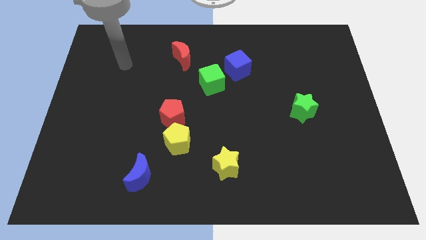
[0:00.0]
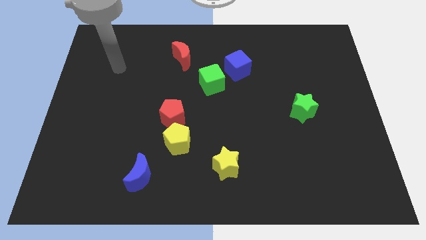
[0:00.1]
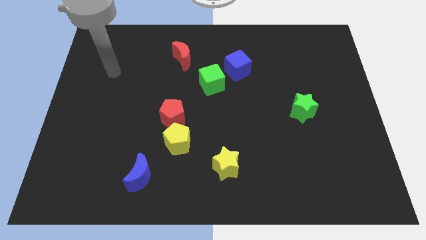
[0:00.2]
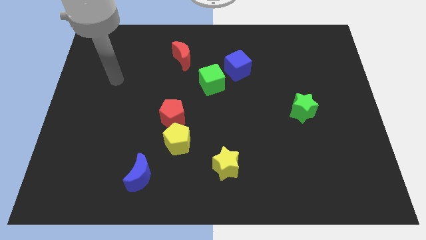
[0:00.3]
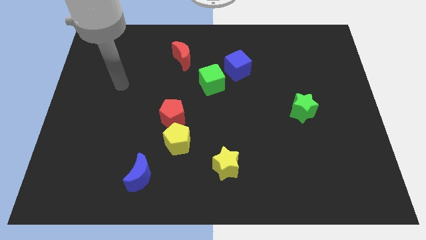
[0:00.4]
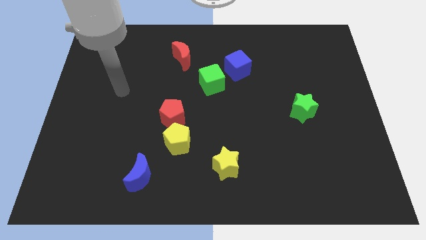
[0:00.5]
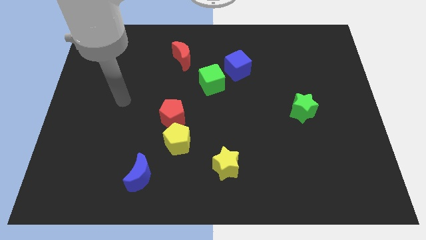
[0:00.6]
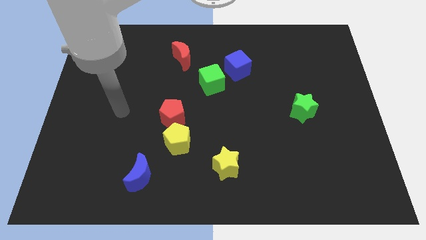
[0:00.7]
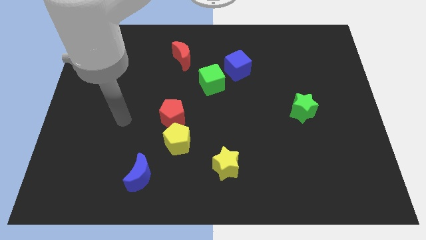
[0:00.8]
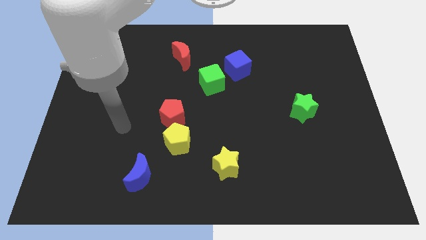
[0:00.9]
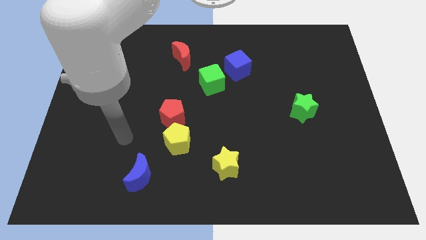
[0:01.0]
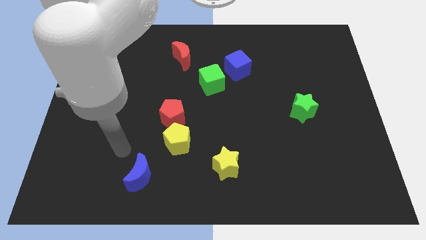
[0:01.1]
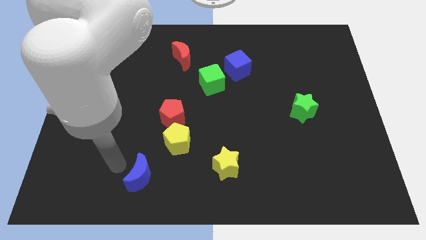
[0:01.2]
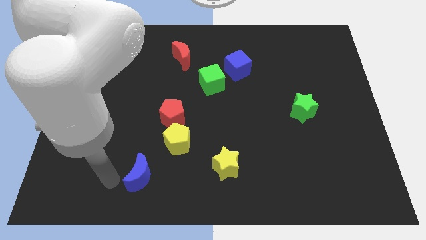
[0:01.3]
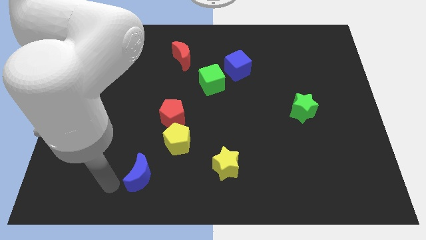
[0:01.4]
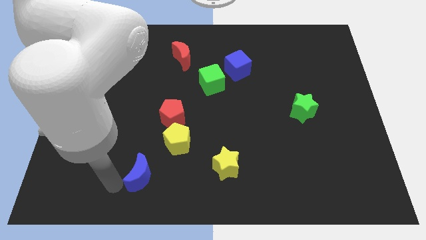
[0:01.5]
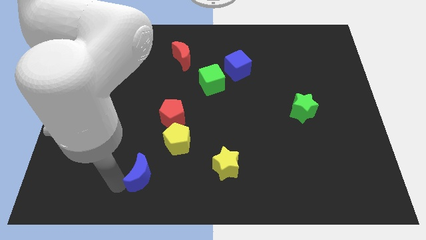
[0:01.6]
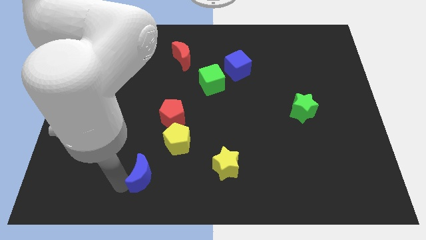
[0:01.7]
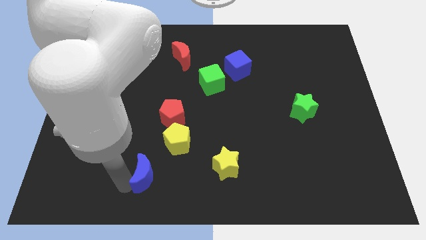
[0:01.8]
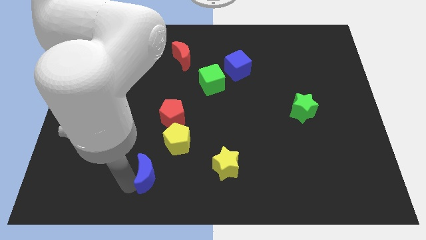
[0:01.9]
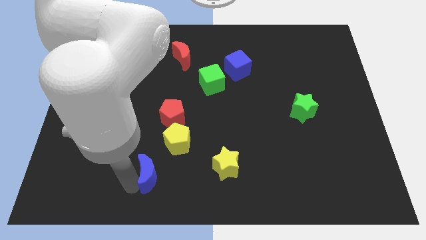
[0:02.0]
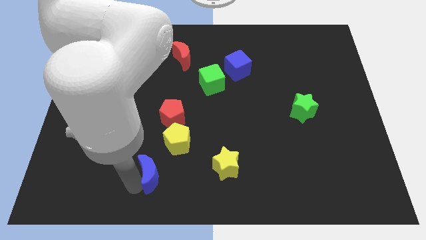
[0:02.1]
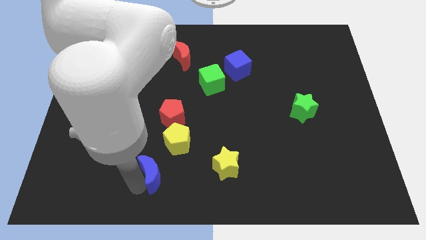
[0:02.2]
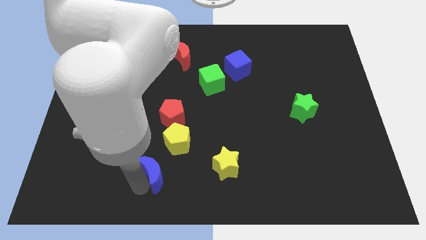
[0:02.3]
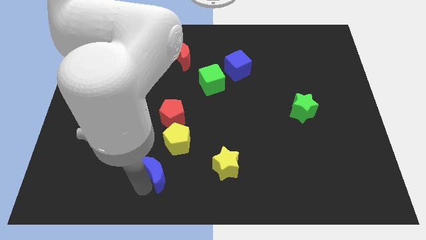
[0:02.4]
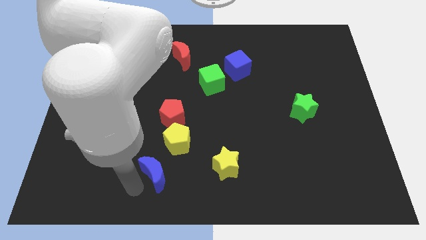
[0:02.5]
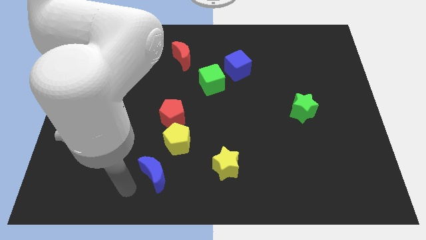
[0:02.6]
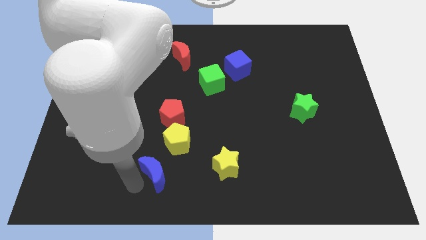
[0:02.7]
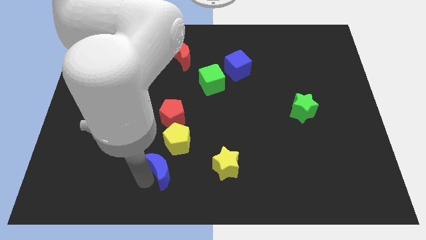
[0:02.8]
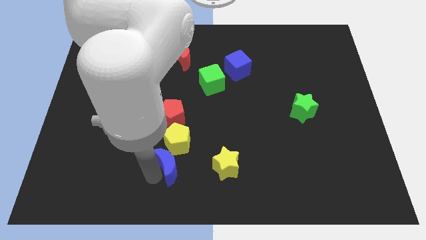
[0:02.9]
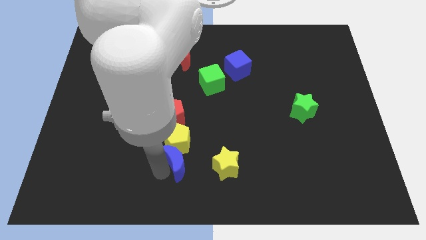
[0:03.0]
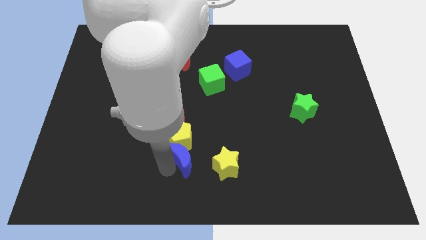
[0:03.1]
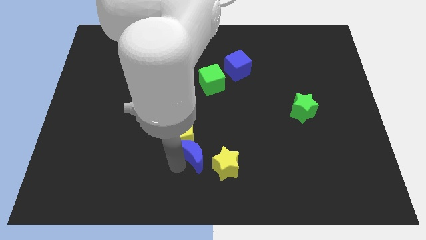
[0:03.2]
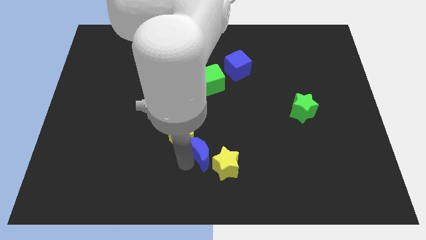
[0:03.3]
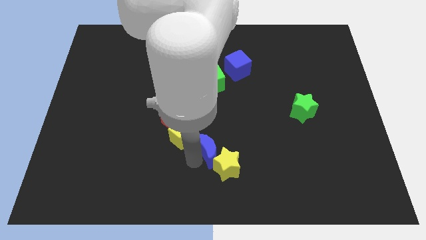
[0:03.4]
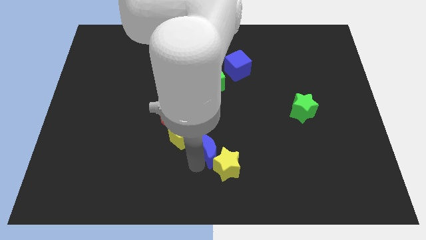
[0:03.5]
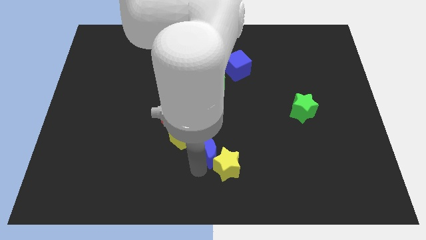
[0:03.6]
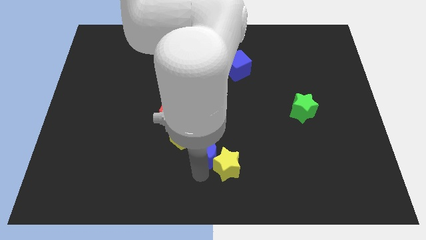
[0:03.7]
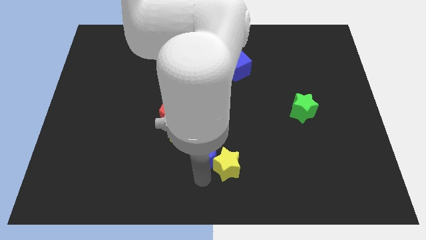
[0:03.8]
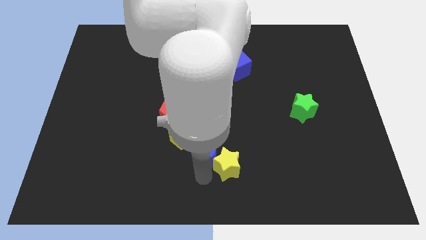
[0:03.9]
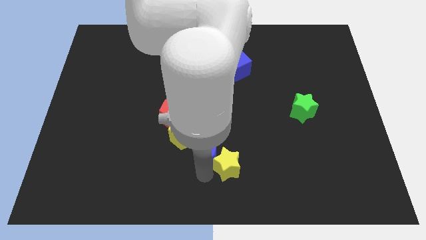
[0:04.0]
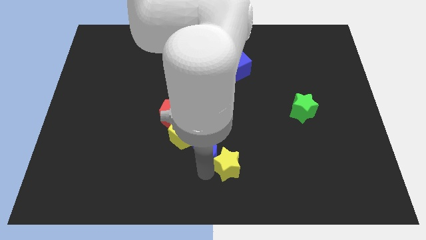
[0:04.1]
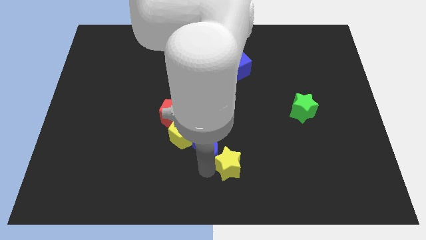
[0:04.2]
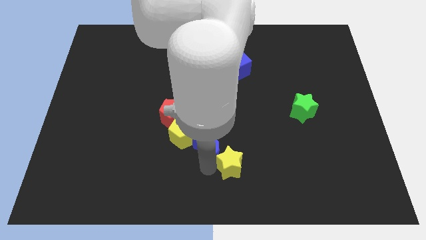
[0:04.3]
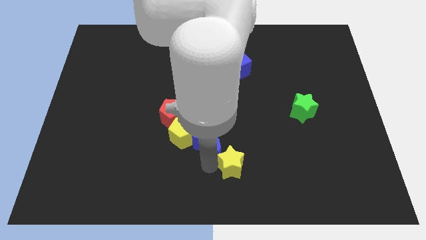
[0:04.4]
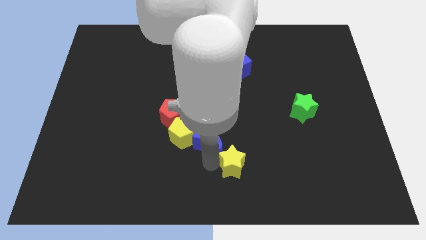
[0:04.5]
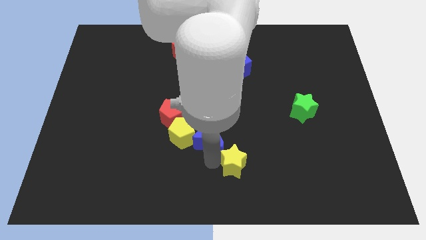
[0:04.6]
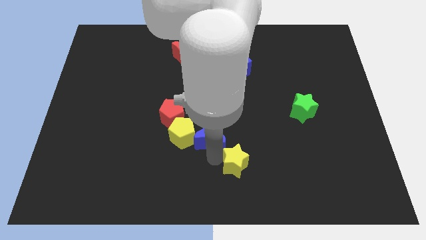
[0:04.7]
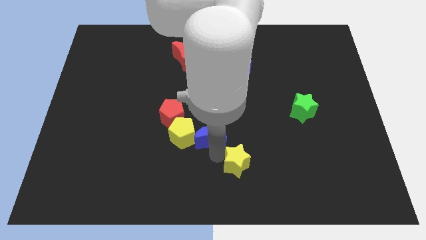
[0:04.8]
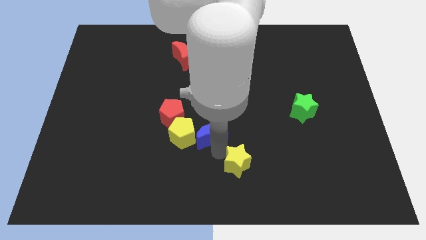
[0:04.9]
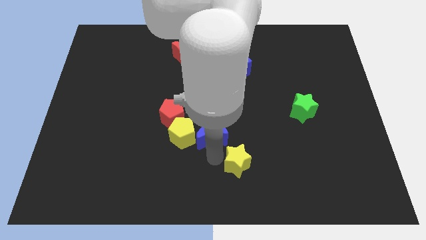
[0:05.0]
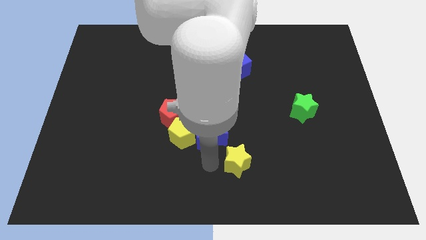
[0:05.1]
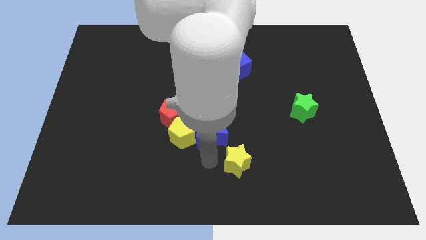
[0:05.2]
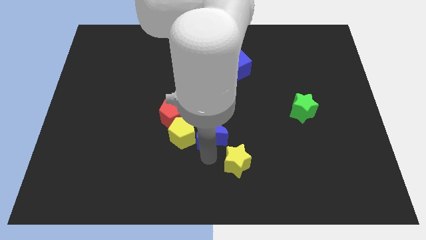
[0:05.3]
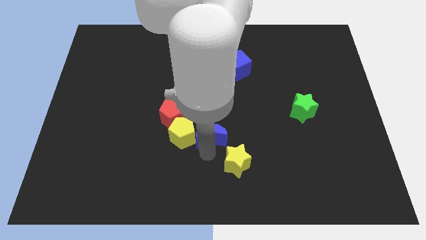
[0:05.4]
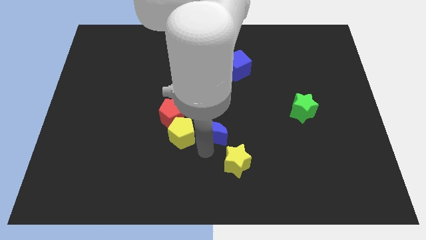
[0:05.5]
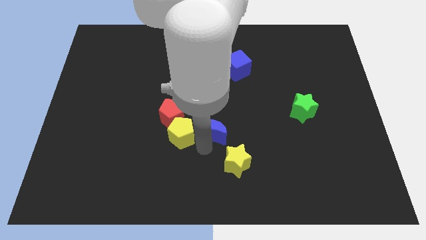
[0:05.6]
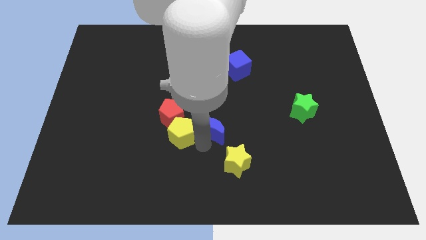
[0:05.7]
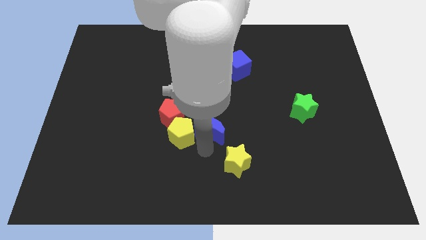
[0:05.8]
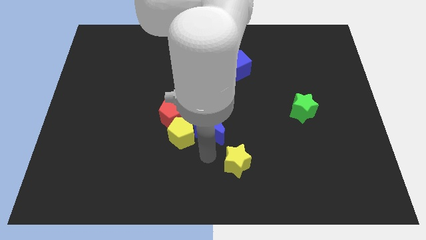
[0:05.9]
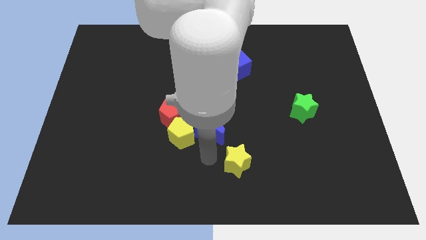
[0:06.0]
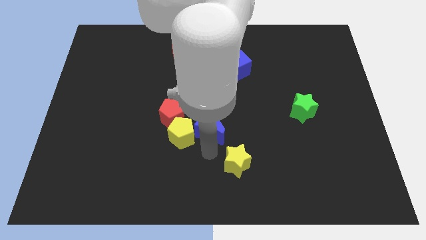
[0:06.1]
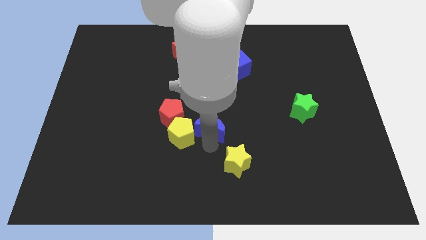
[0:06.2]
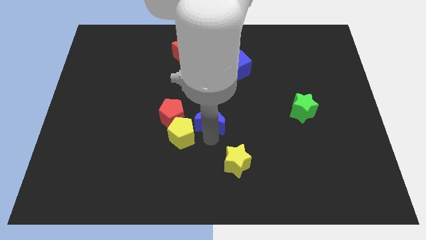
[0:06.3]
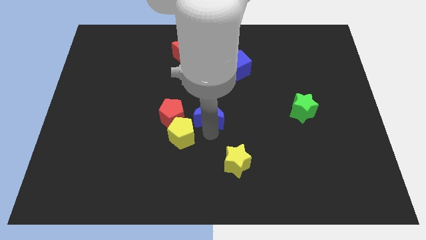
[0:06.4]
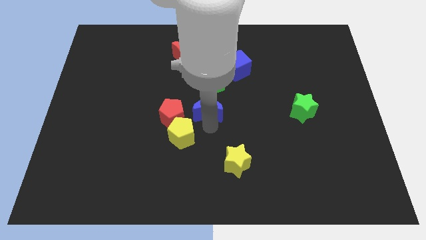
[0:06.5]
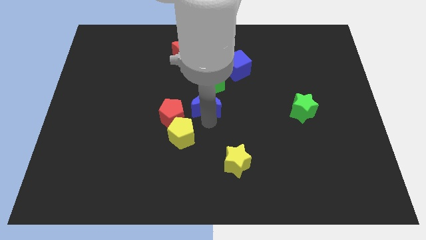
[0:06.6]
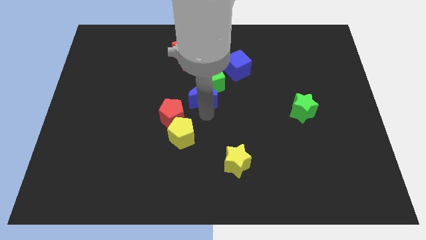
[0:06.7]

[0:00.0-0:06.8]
push the blue moon close to the green cube

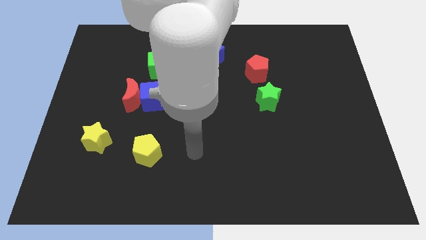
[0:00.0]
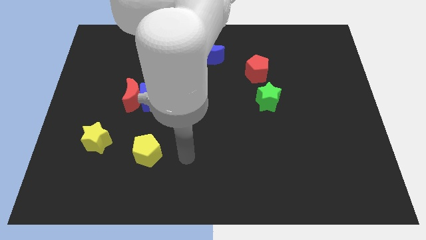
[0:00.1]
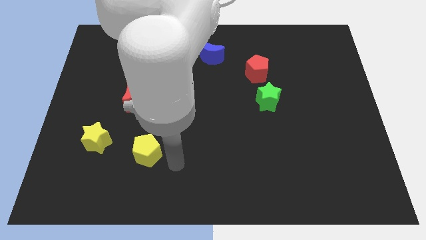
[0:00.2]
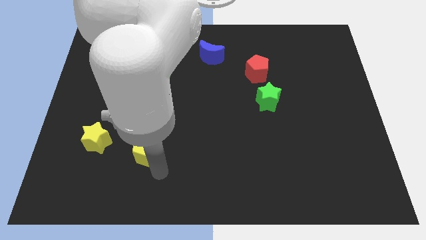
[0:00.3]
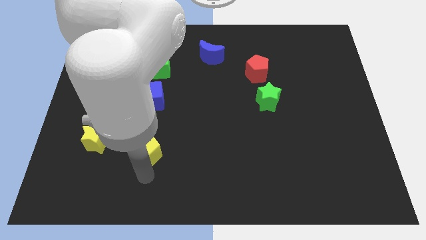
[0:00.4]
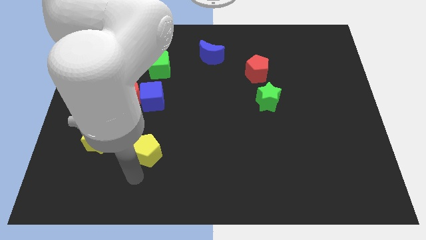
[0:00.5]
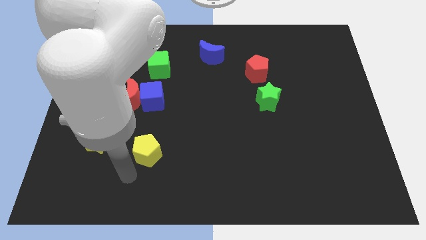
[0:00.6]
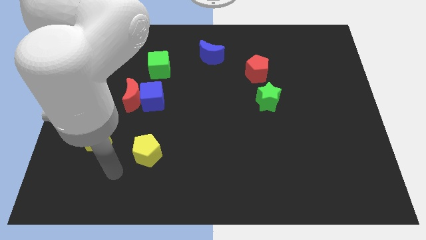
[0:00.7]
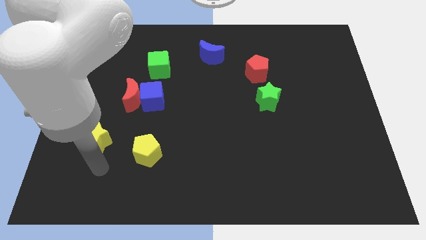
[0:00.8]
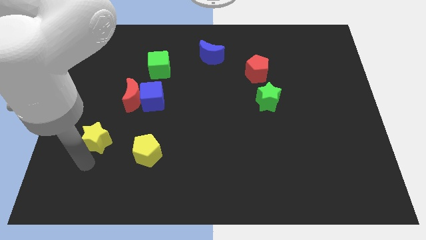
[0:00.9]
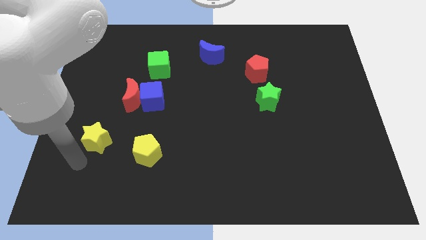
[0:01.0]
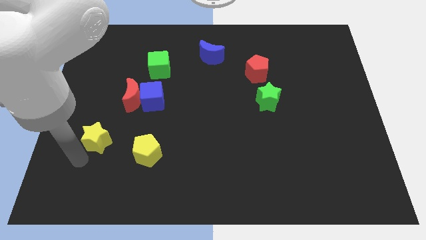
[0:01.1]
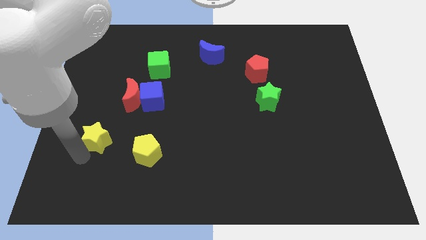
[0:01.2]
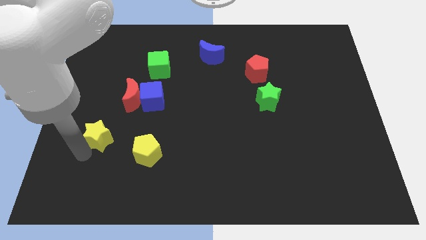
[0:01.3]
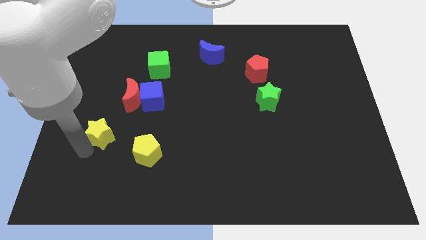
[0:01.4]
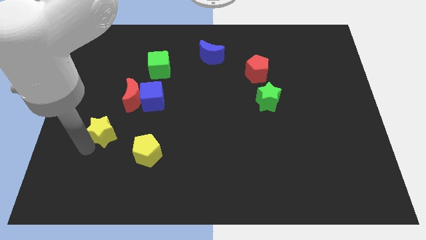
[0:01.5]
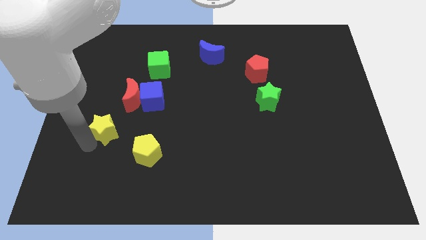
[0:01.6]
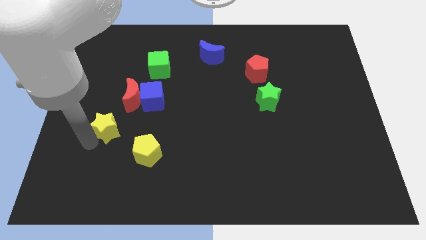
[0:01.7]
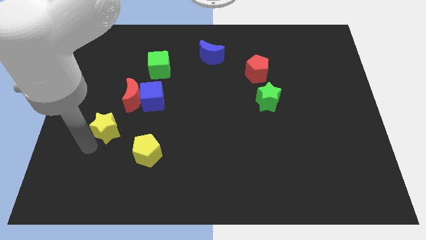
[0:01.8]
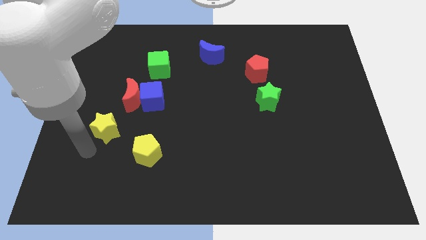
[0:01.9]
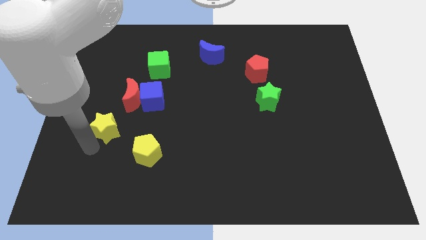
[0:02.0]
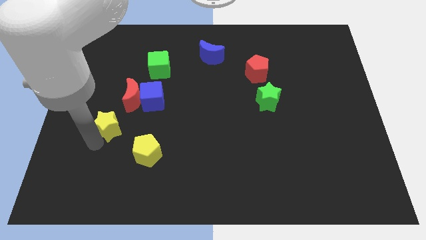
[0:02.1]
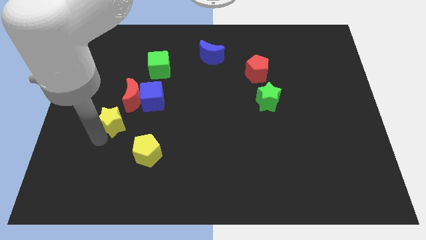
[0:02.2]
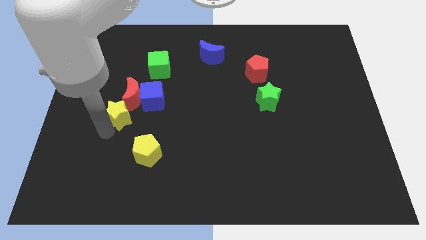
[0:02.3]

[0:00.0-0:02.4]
move the yellow star next to the red moon
